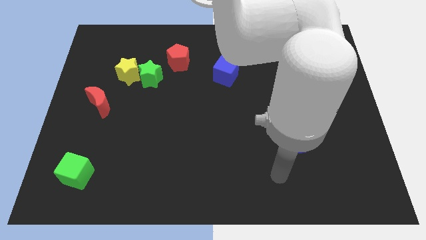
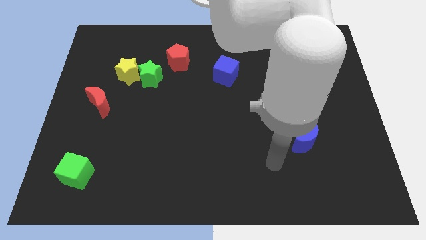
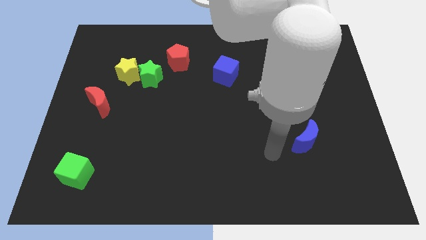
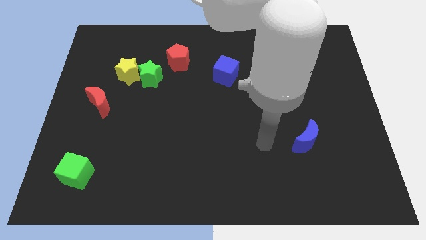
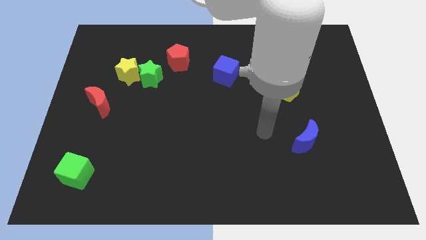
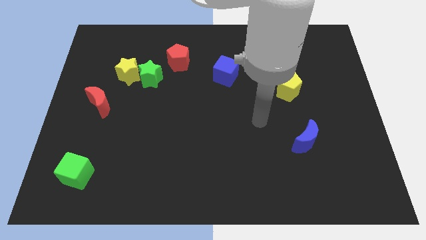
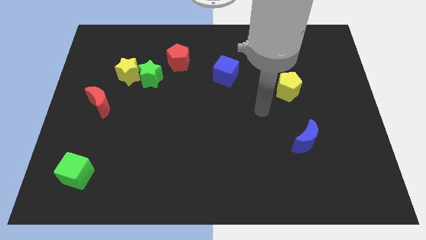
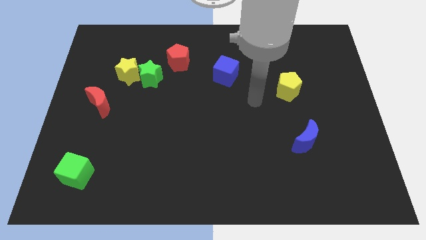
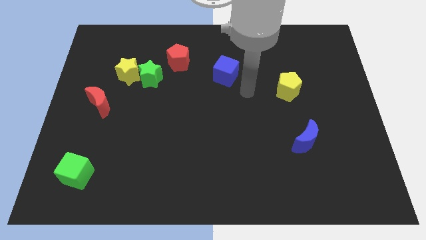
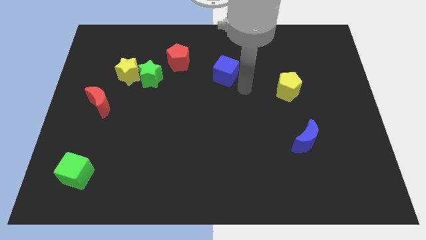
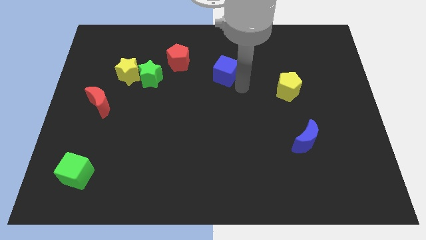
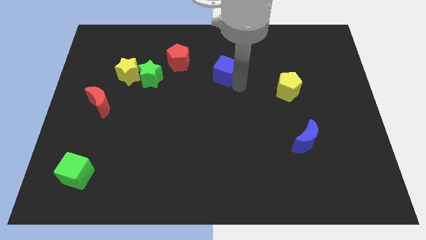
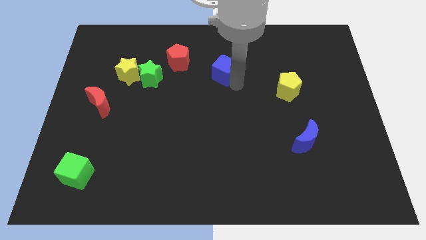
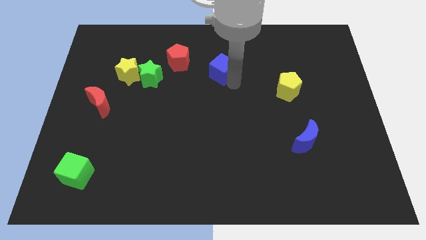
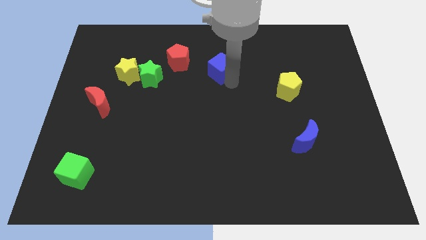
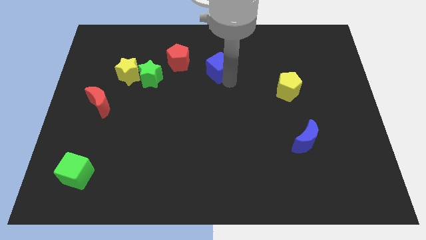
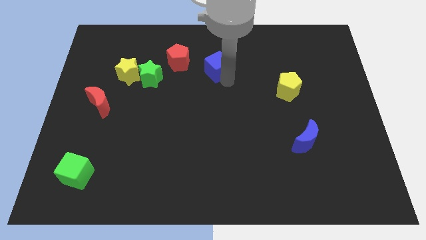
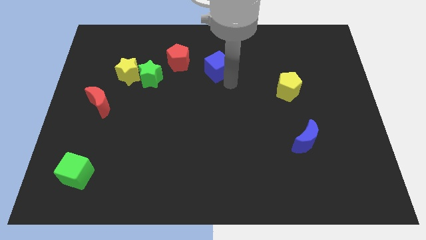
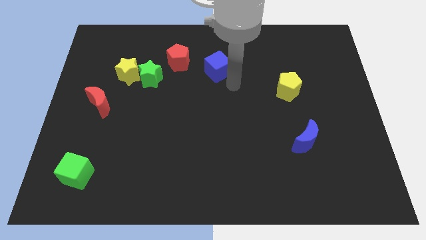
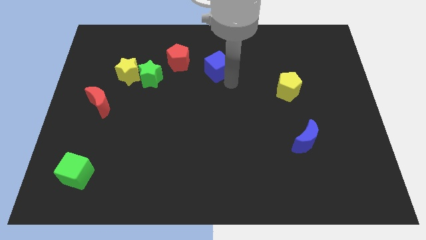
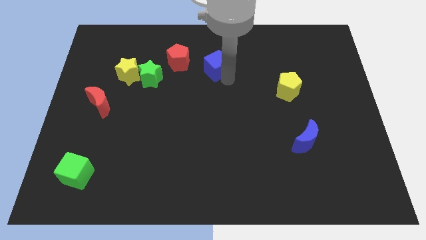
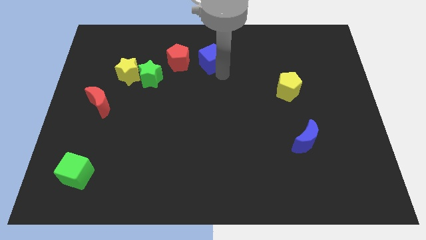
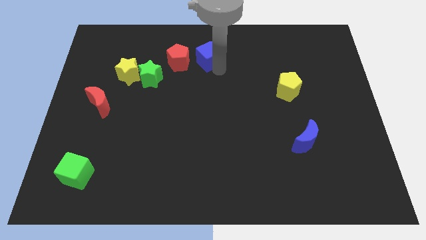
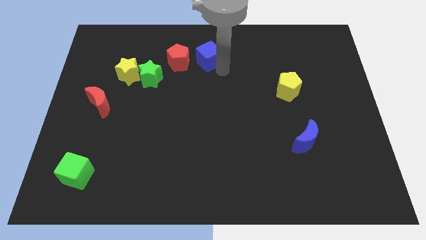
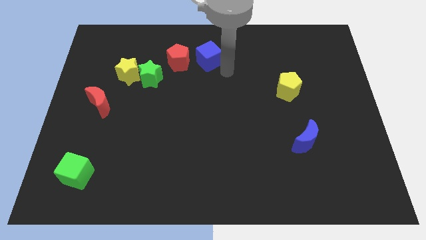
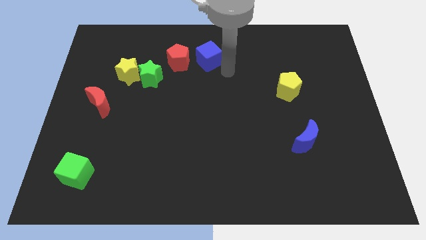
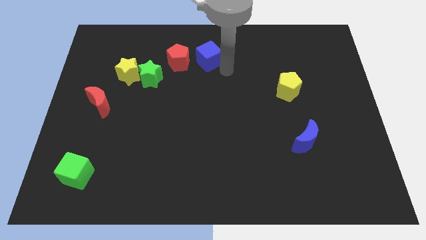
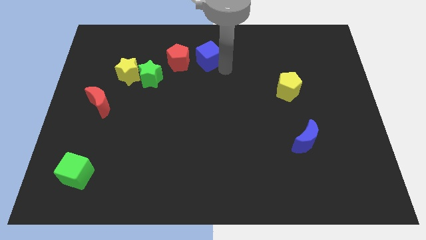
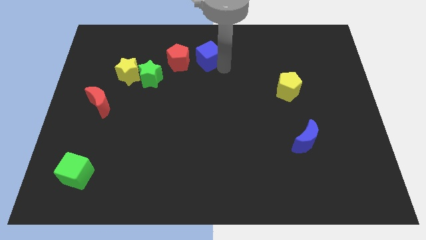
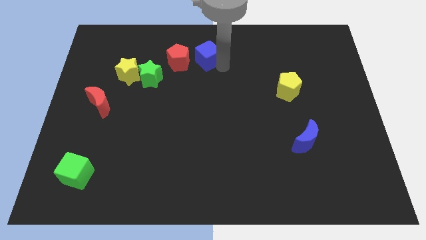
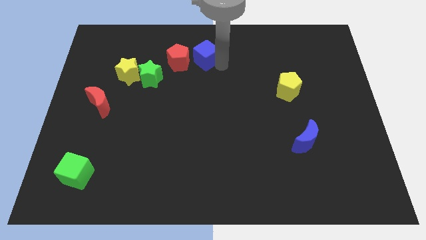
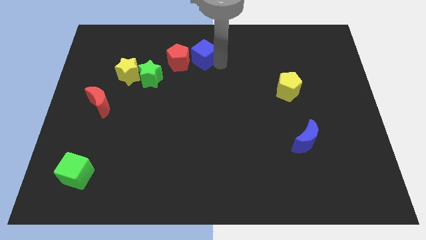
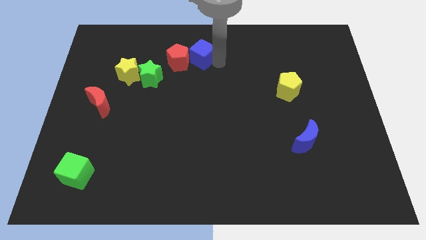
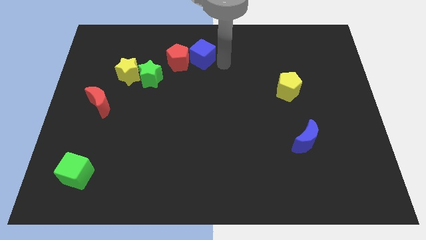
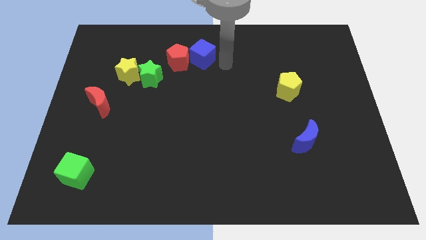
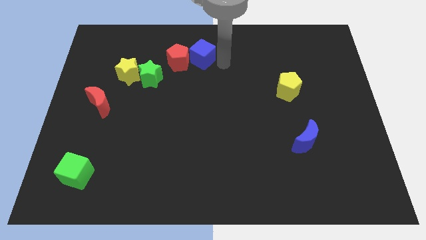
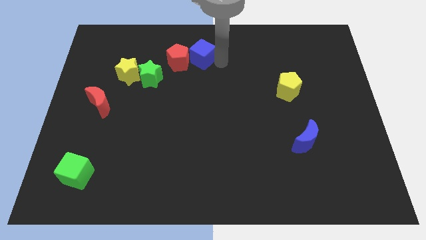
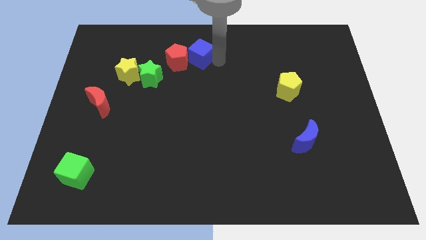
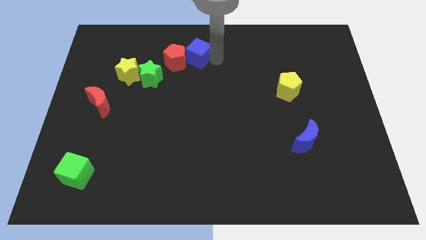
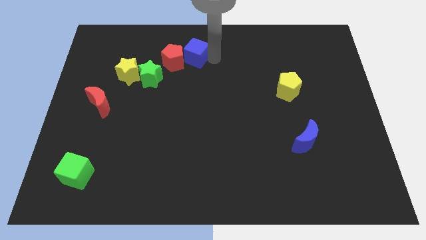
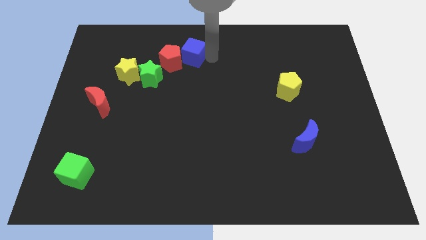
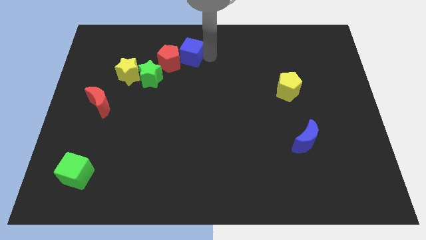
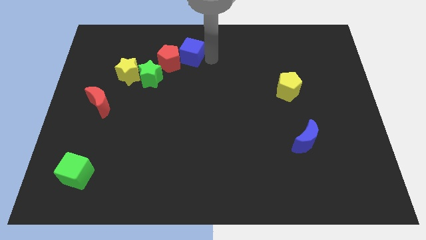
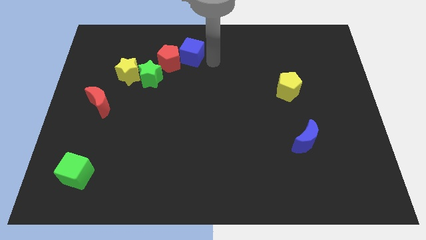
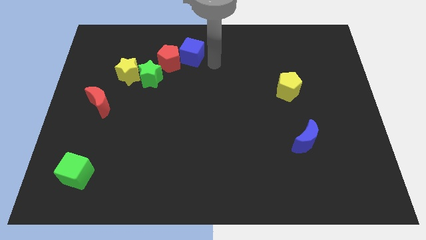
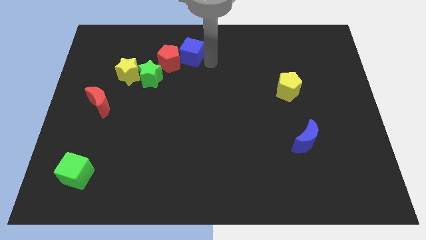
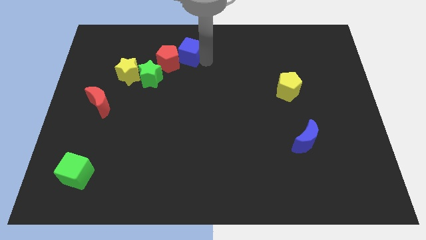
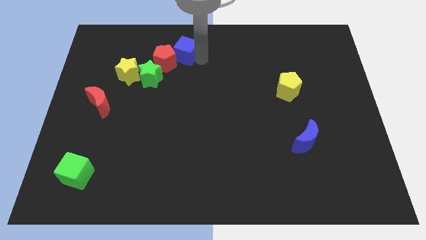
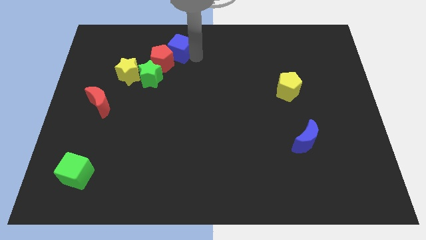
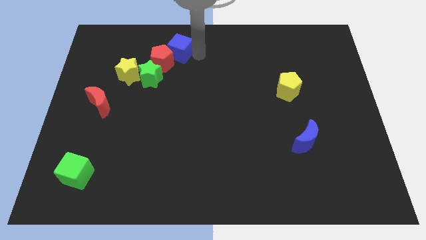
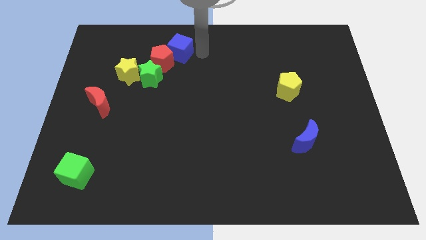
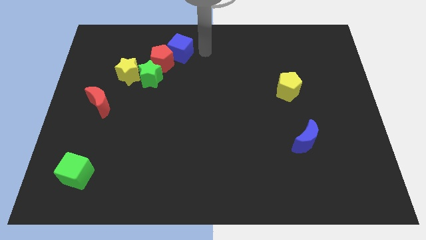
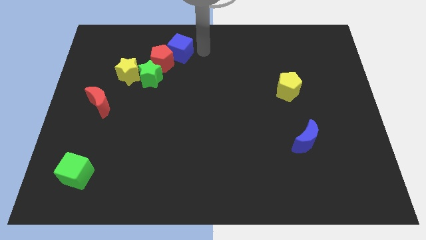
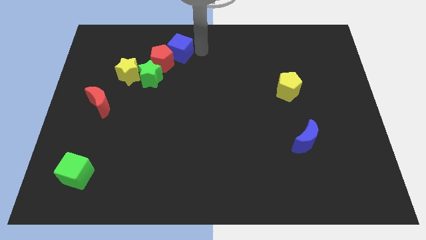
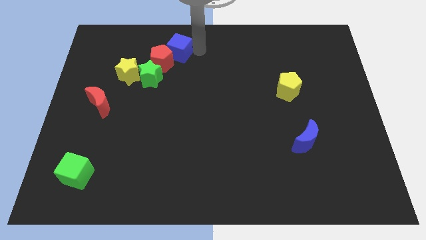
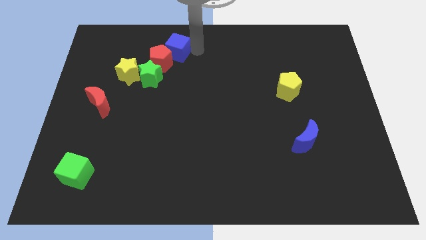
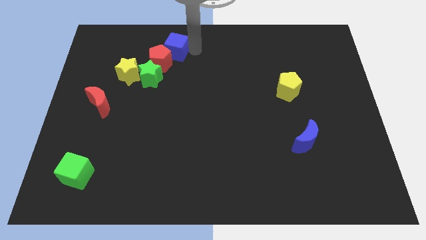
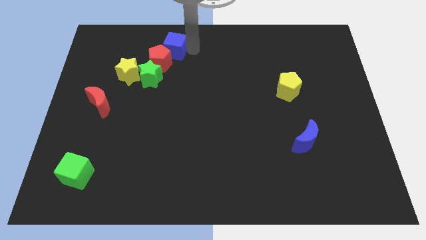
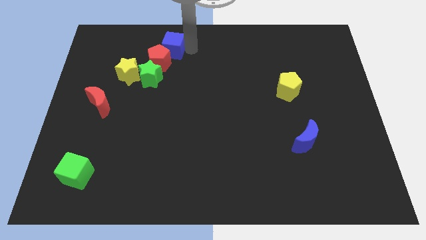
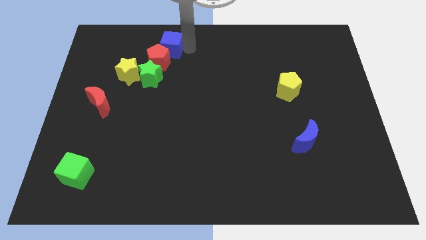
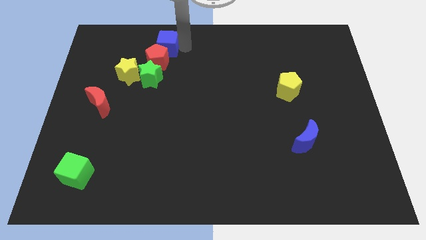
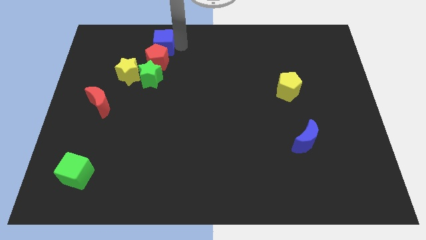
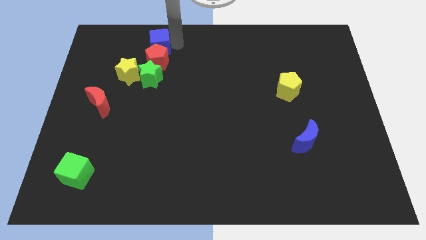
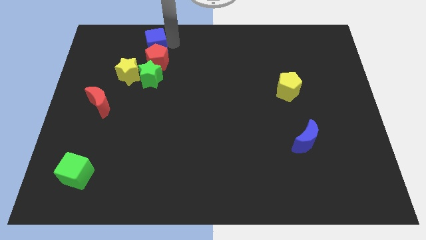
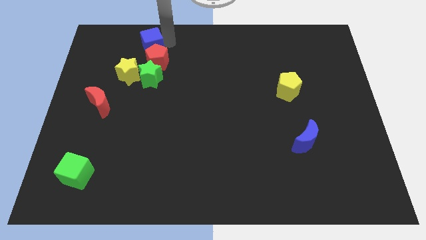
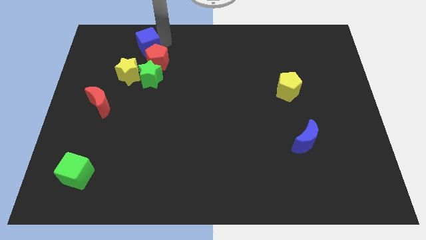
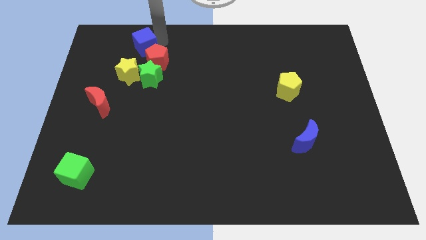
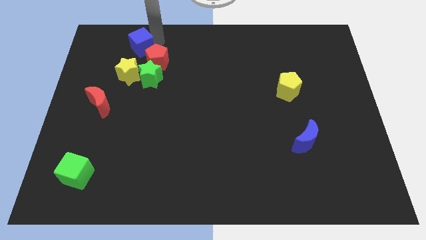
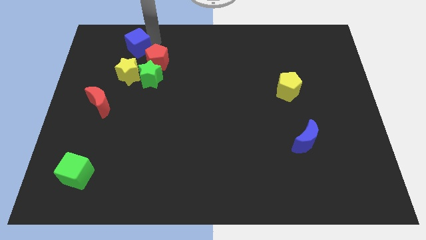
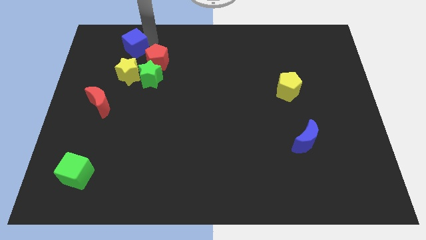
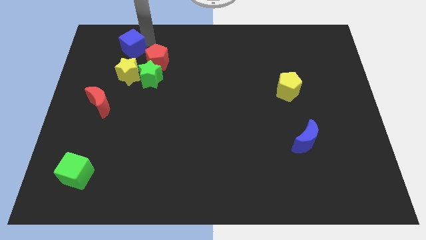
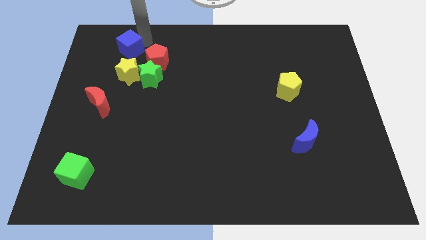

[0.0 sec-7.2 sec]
slide the blue cube to the left of the red pentagon
